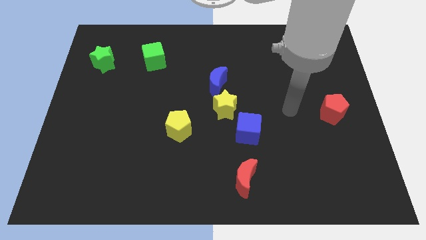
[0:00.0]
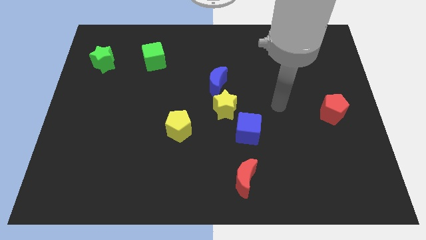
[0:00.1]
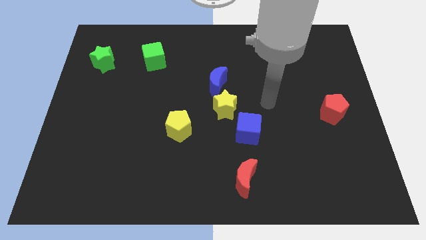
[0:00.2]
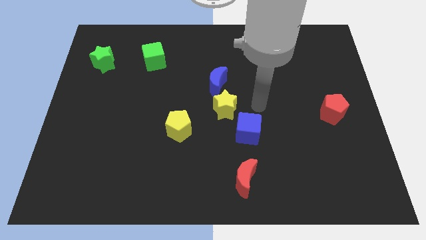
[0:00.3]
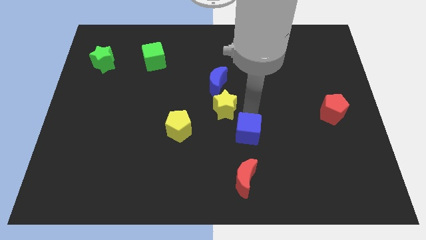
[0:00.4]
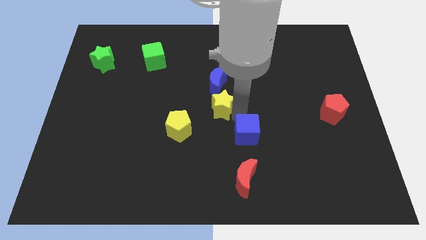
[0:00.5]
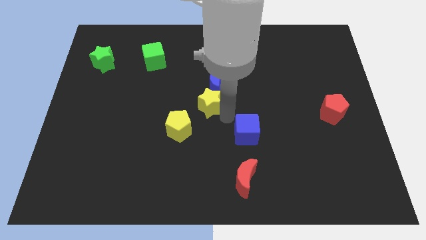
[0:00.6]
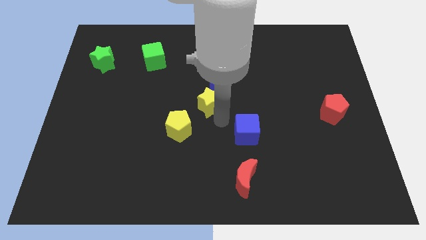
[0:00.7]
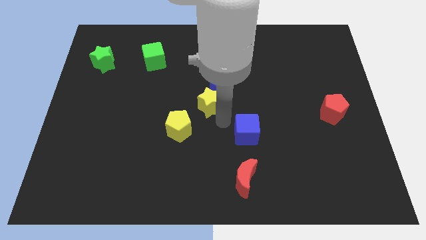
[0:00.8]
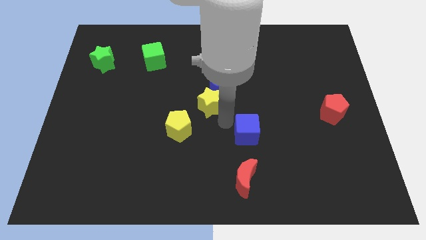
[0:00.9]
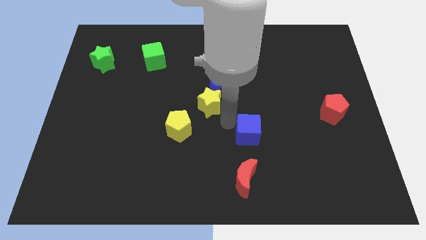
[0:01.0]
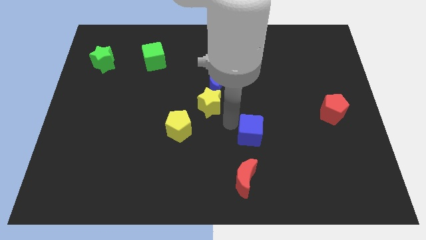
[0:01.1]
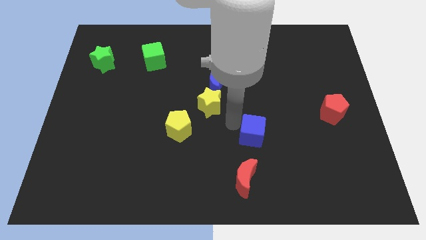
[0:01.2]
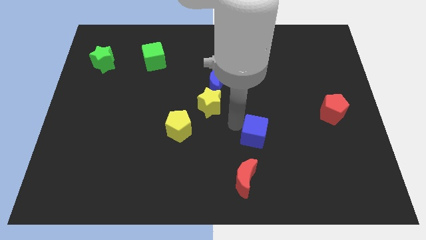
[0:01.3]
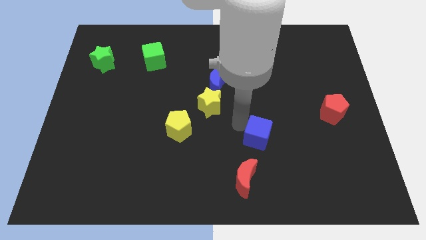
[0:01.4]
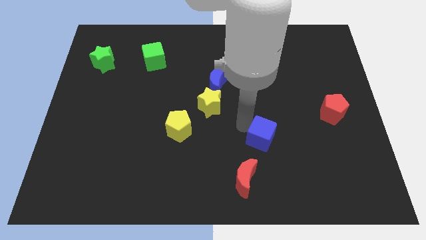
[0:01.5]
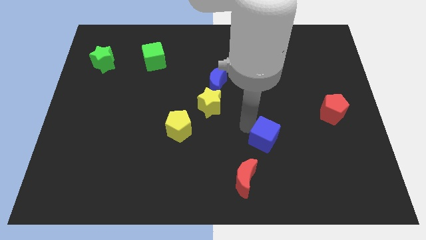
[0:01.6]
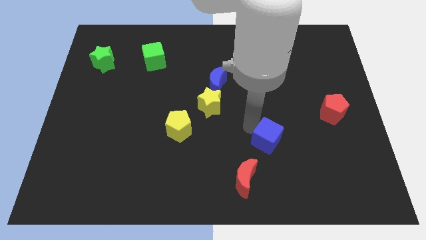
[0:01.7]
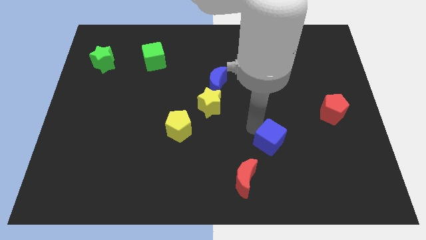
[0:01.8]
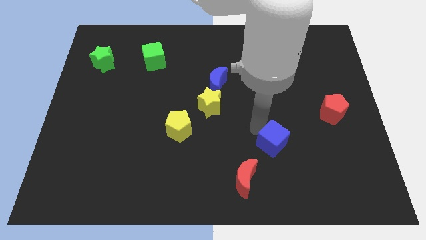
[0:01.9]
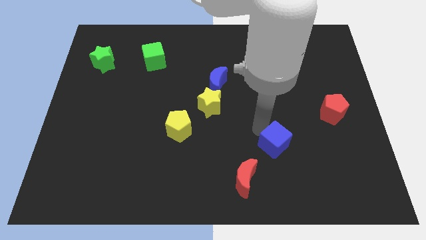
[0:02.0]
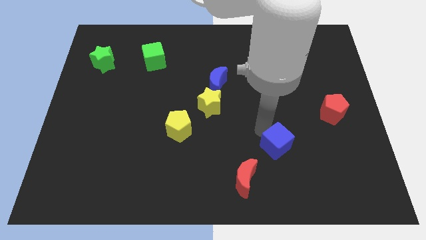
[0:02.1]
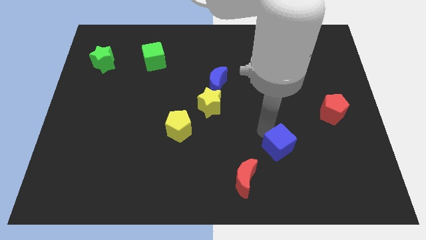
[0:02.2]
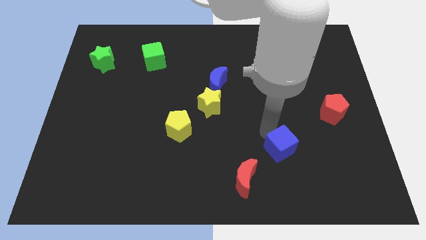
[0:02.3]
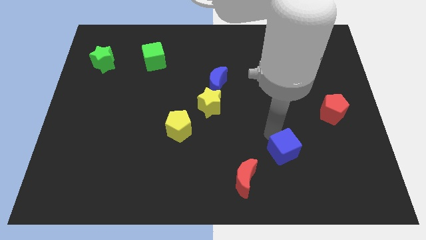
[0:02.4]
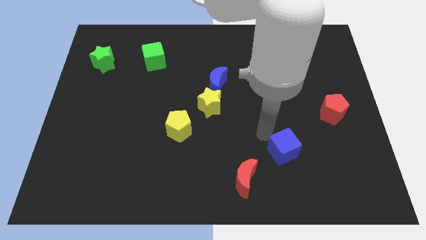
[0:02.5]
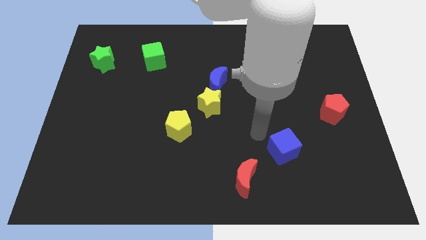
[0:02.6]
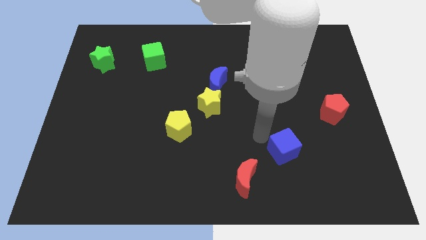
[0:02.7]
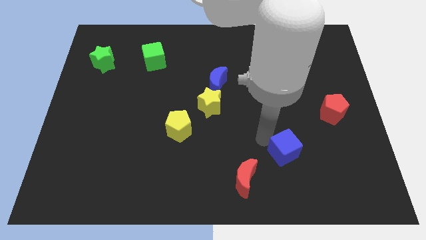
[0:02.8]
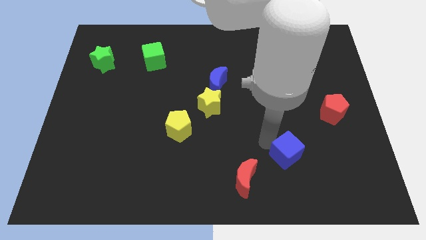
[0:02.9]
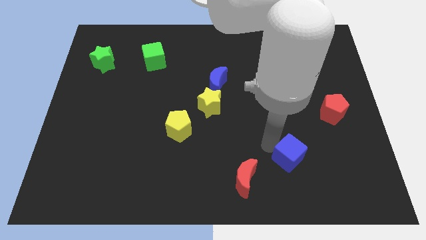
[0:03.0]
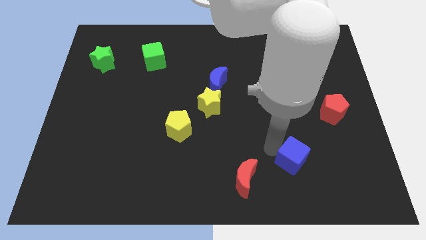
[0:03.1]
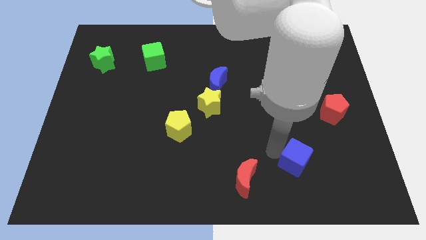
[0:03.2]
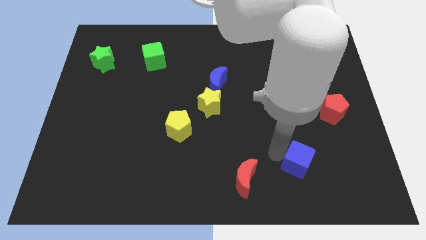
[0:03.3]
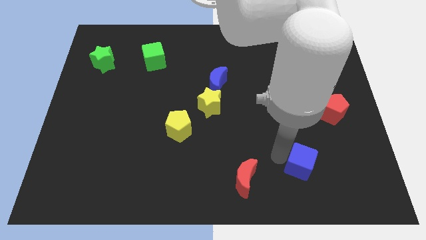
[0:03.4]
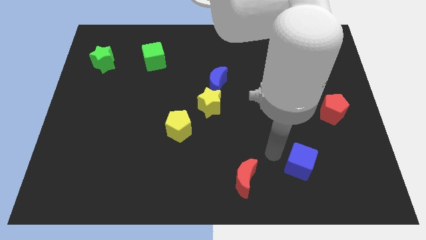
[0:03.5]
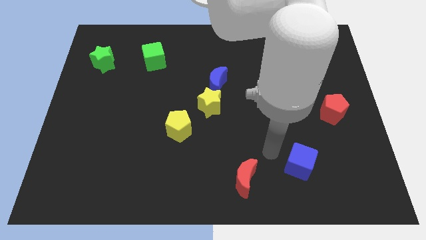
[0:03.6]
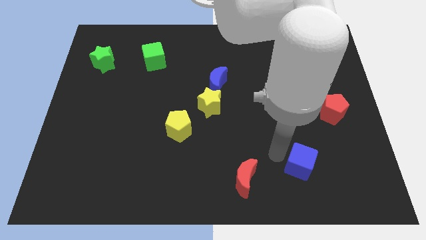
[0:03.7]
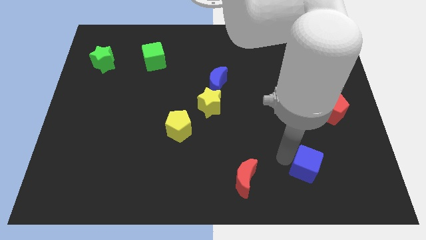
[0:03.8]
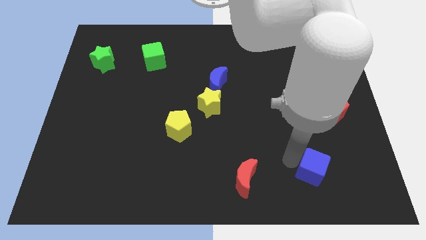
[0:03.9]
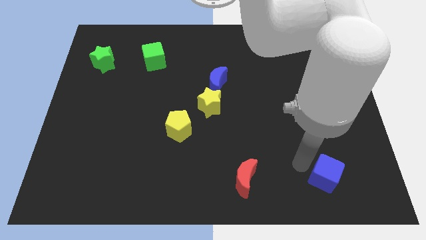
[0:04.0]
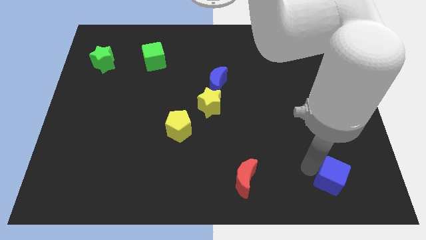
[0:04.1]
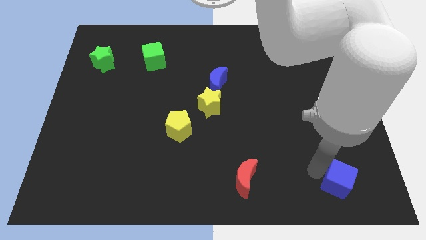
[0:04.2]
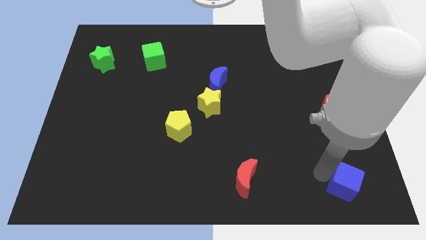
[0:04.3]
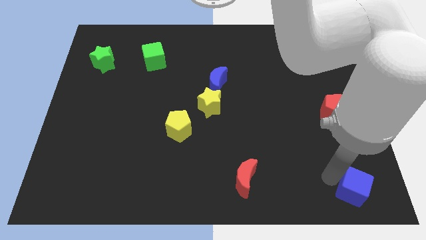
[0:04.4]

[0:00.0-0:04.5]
move the blue cube to the bottom right

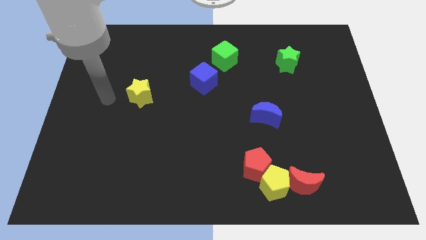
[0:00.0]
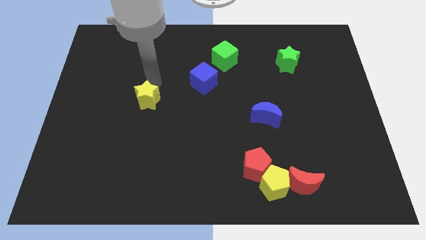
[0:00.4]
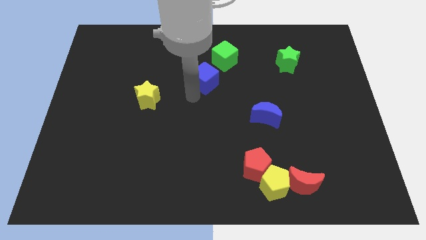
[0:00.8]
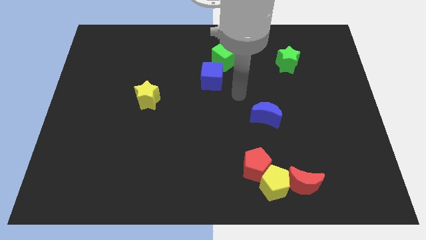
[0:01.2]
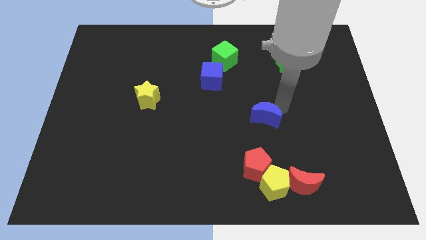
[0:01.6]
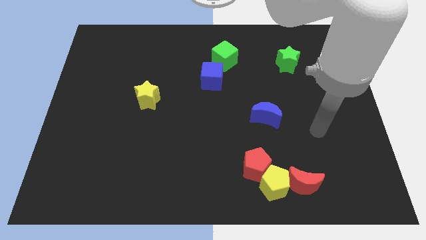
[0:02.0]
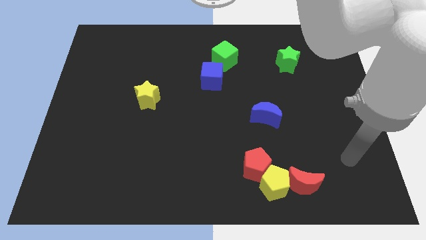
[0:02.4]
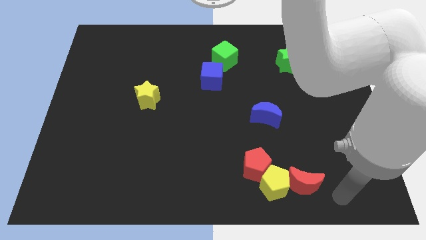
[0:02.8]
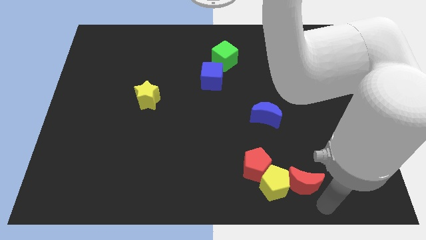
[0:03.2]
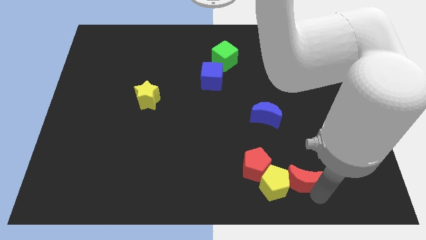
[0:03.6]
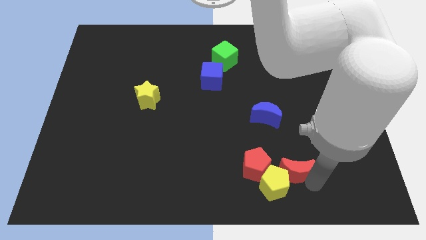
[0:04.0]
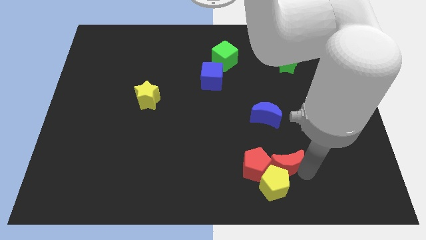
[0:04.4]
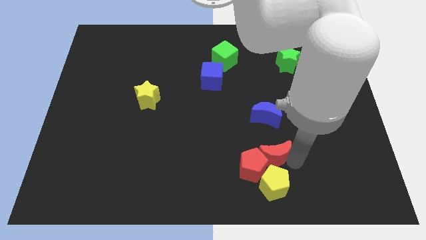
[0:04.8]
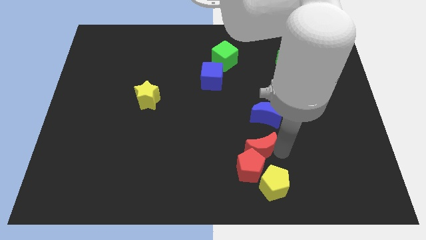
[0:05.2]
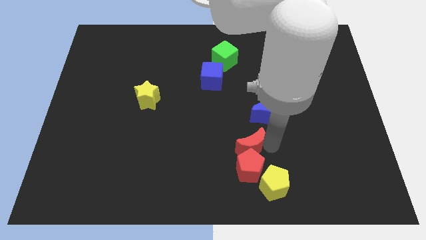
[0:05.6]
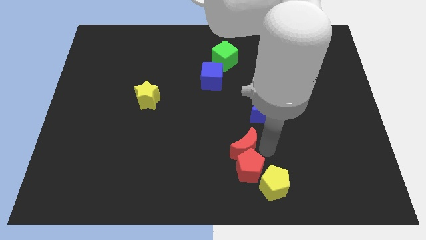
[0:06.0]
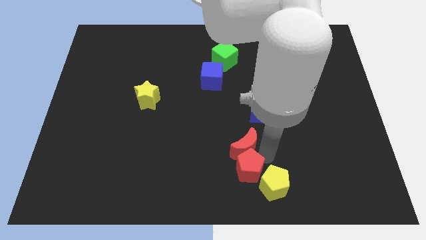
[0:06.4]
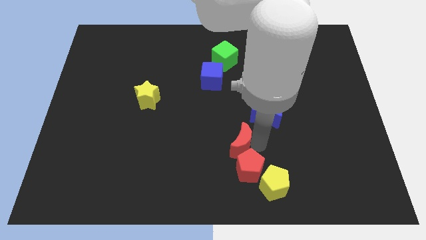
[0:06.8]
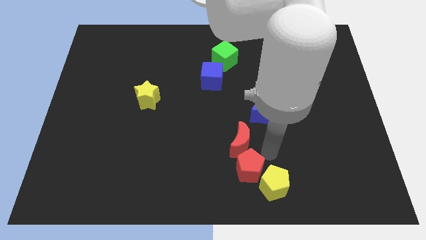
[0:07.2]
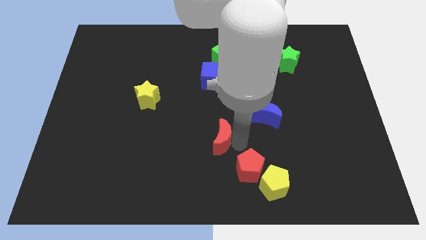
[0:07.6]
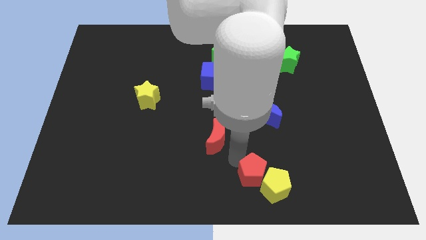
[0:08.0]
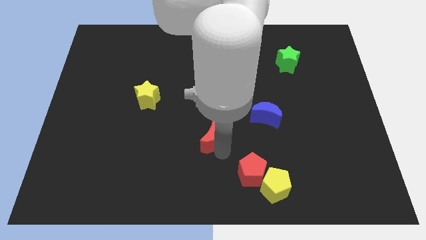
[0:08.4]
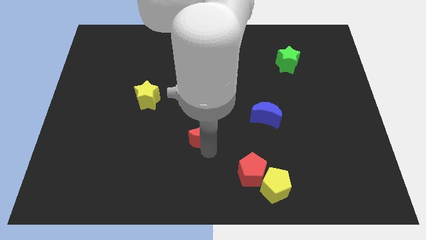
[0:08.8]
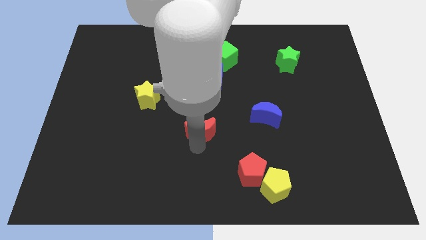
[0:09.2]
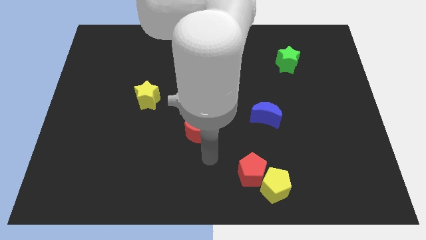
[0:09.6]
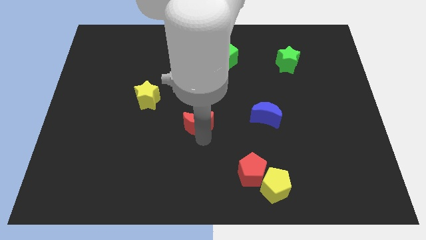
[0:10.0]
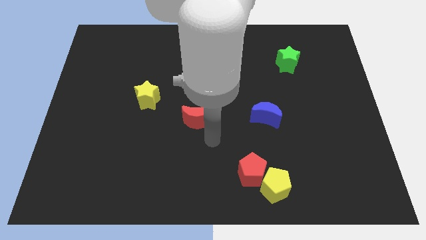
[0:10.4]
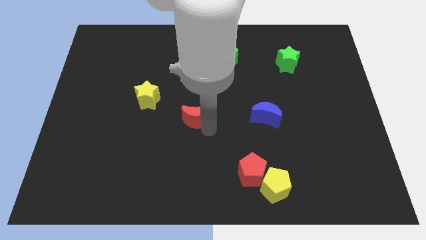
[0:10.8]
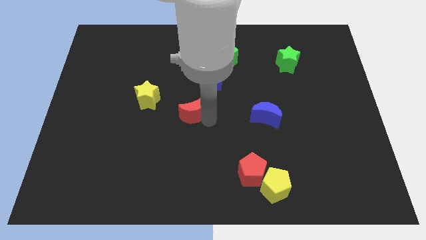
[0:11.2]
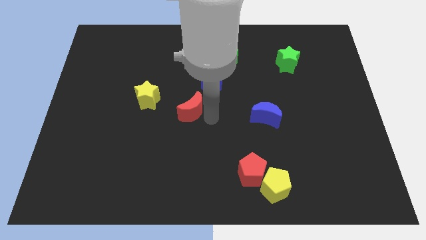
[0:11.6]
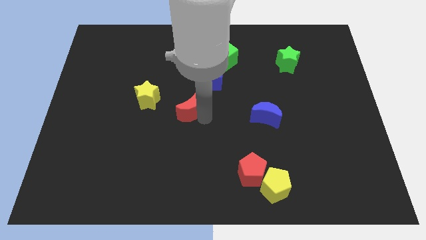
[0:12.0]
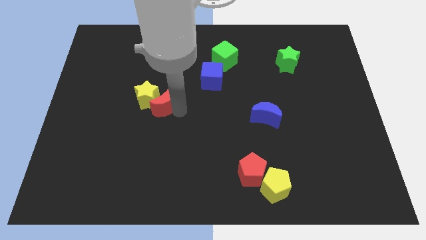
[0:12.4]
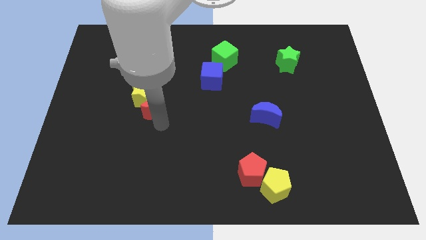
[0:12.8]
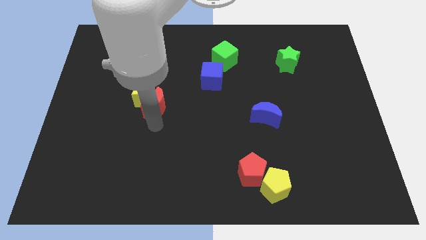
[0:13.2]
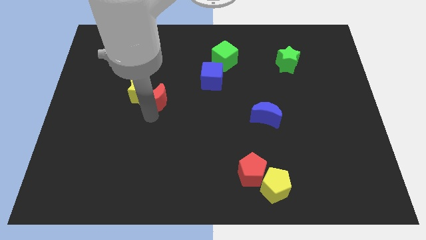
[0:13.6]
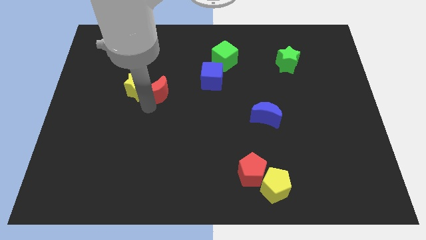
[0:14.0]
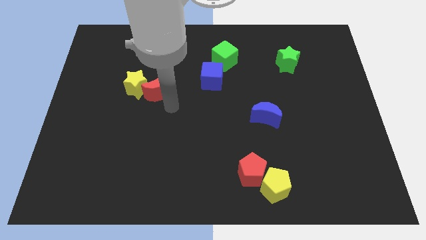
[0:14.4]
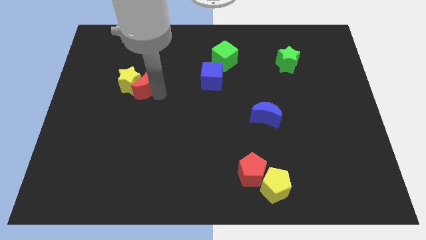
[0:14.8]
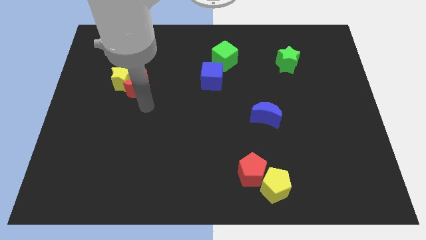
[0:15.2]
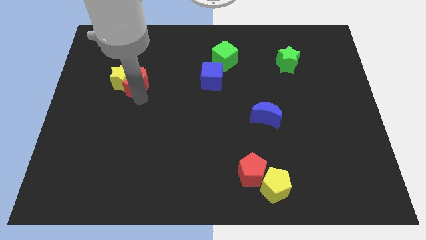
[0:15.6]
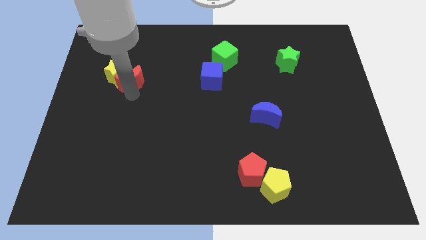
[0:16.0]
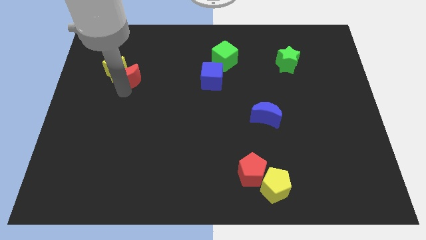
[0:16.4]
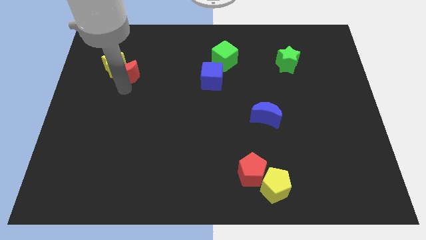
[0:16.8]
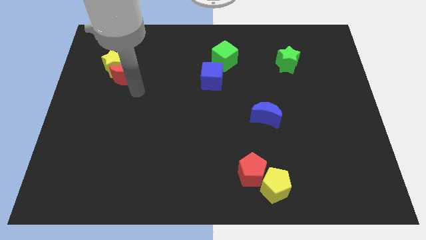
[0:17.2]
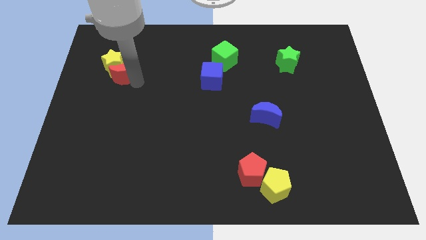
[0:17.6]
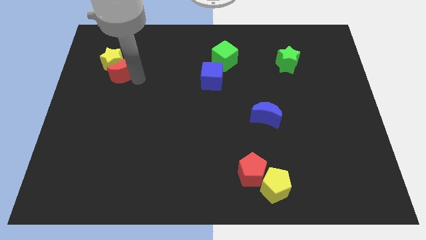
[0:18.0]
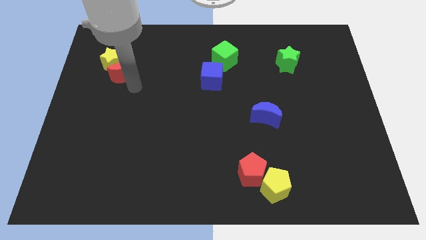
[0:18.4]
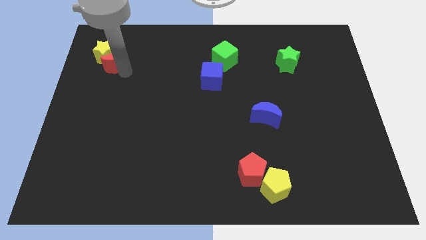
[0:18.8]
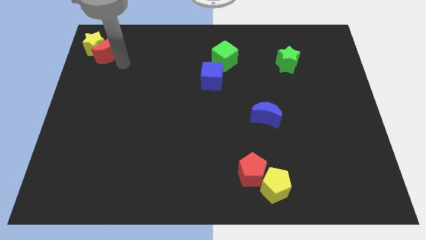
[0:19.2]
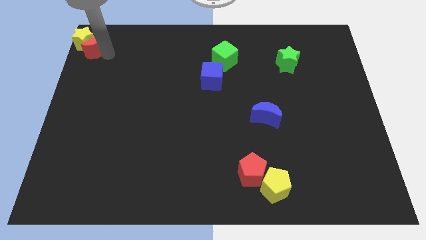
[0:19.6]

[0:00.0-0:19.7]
slide the red moon to the upper left corner
